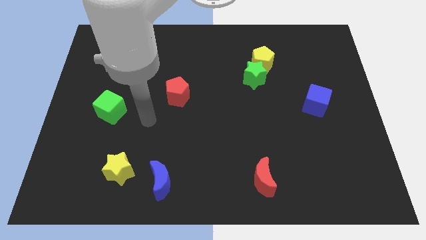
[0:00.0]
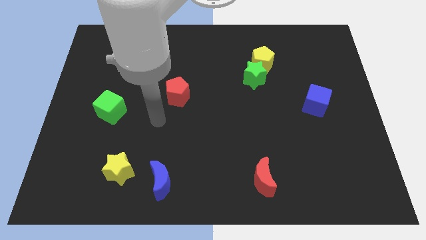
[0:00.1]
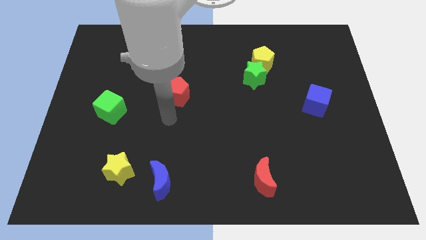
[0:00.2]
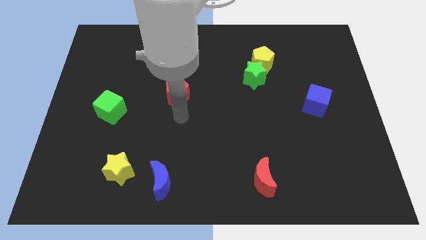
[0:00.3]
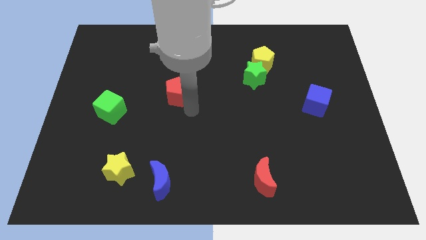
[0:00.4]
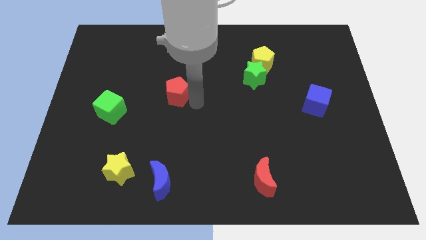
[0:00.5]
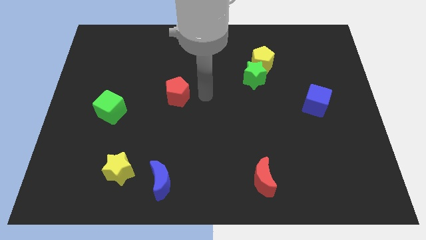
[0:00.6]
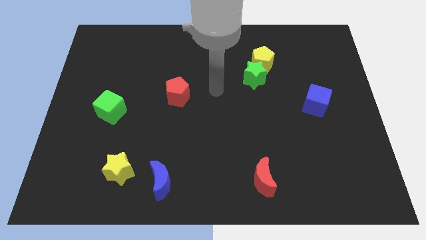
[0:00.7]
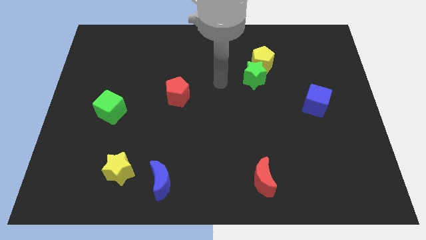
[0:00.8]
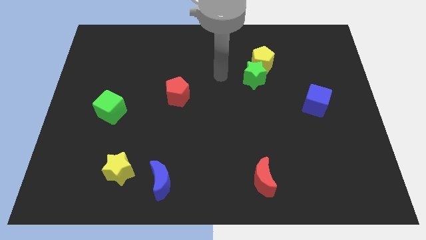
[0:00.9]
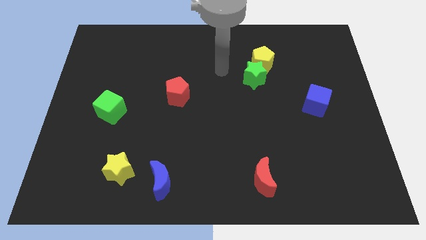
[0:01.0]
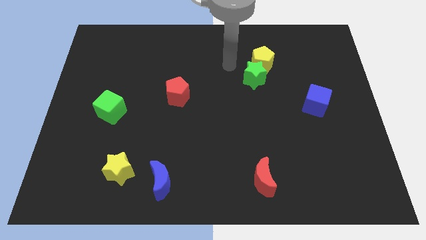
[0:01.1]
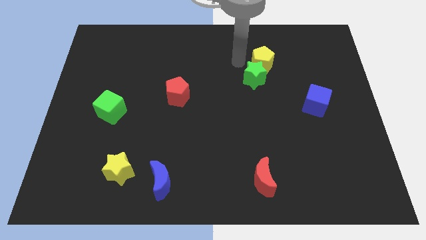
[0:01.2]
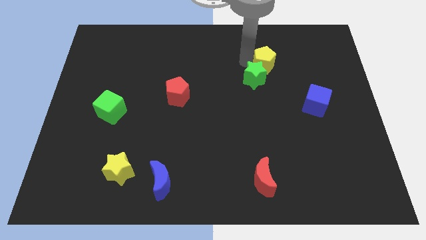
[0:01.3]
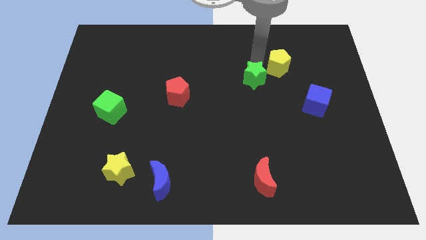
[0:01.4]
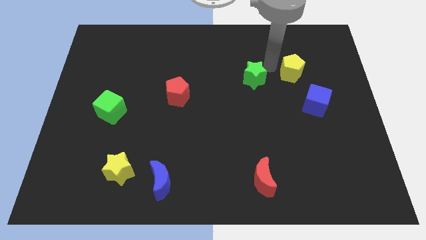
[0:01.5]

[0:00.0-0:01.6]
move the green star away from the yellow pentagon

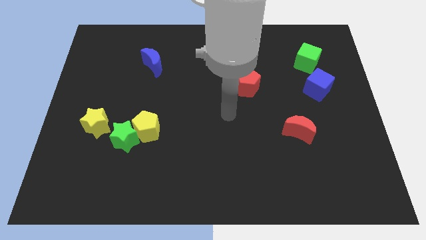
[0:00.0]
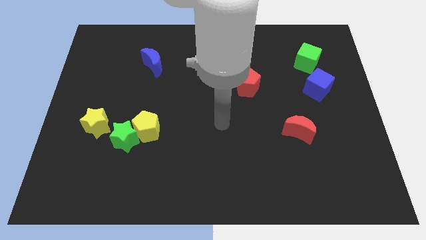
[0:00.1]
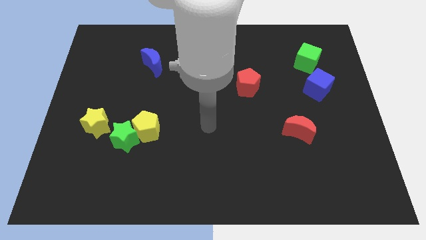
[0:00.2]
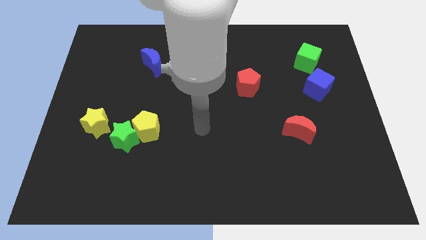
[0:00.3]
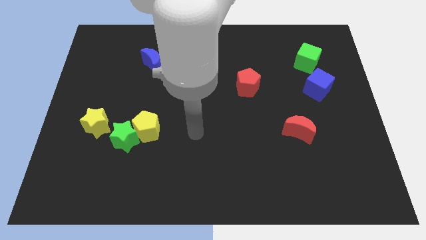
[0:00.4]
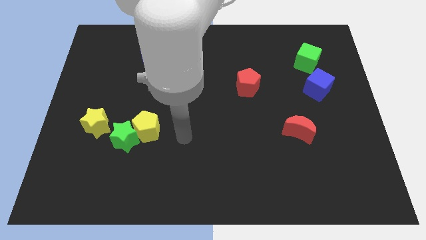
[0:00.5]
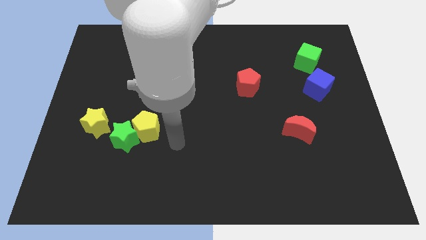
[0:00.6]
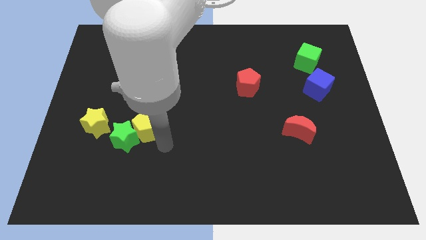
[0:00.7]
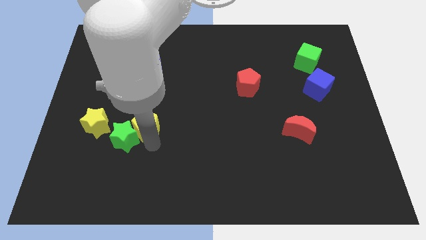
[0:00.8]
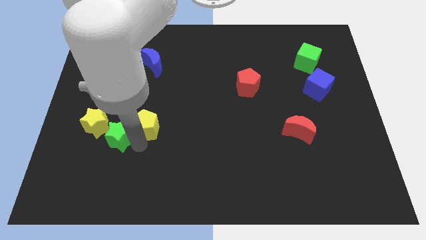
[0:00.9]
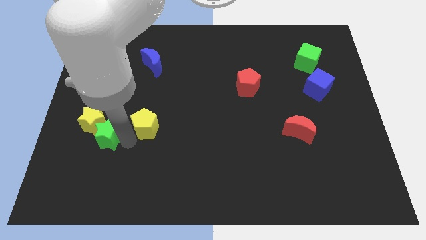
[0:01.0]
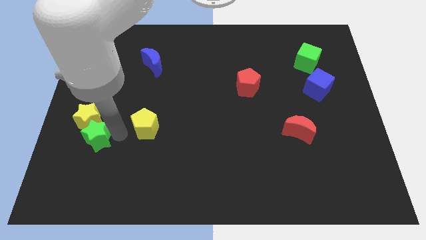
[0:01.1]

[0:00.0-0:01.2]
pull the yellow pentagon apart from the green star

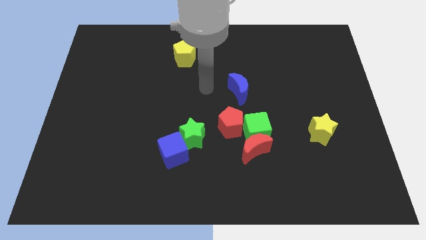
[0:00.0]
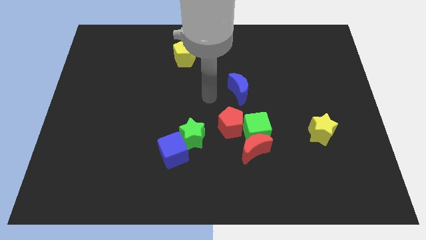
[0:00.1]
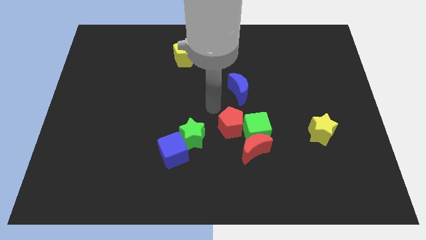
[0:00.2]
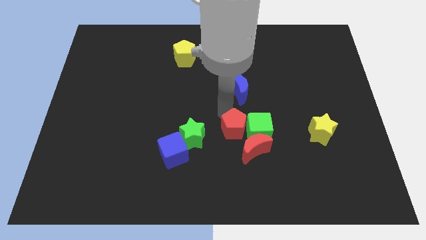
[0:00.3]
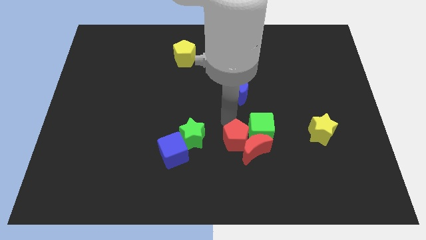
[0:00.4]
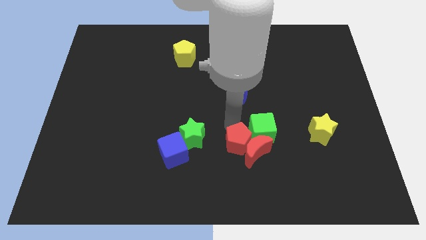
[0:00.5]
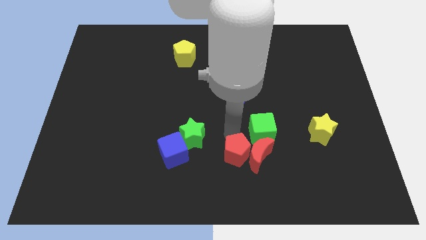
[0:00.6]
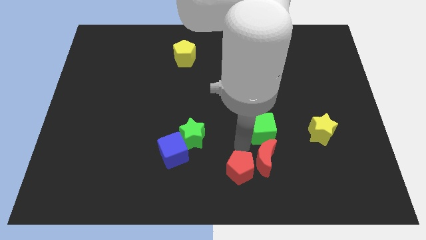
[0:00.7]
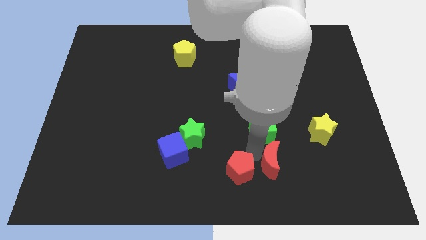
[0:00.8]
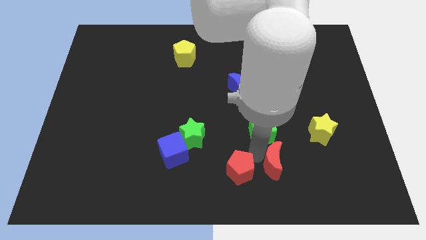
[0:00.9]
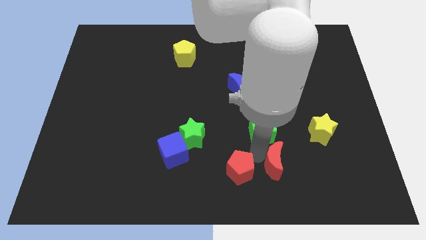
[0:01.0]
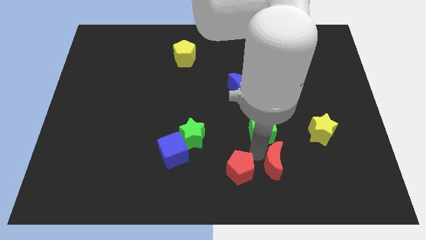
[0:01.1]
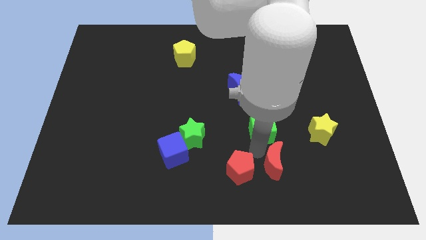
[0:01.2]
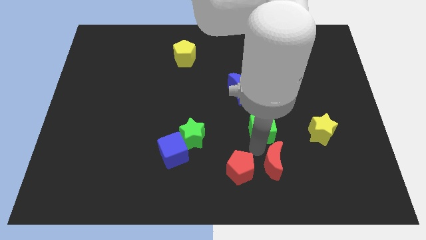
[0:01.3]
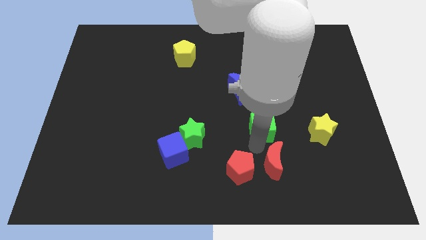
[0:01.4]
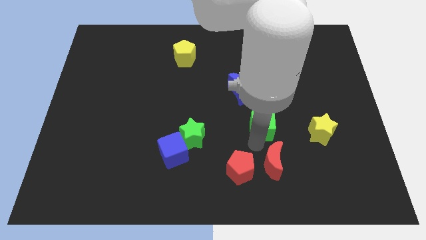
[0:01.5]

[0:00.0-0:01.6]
separate the green cube from the red moon and red pentagon

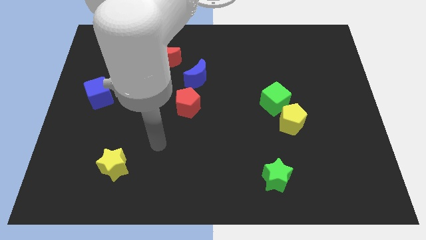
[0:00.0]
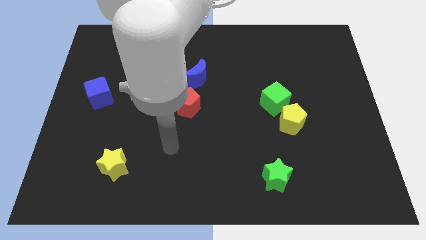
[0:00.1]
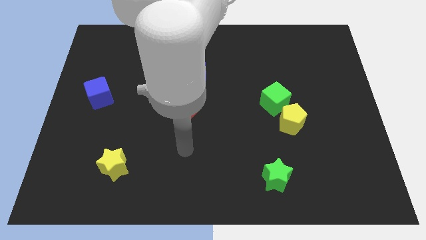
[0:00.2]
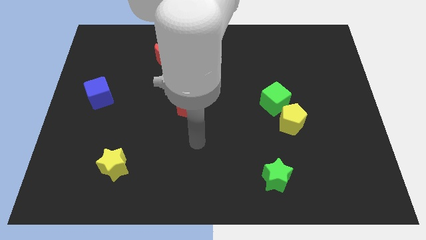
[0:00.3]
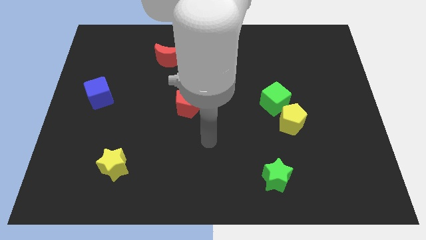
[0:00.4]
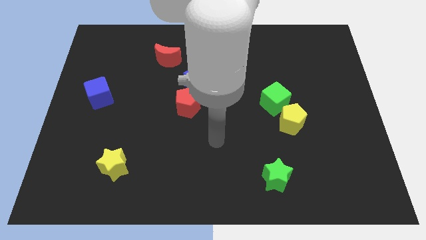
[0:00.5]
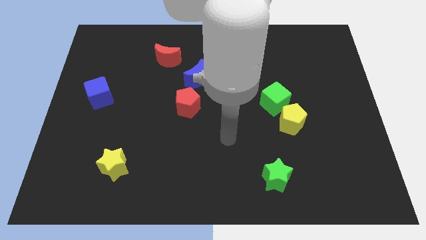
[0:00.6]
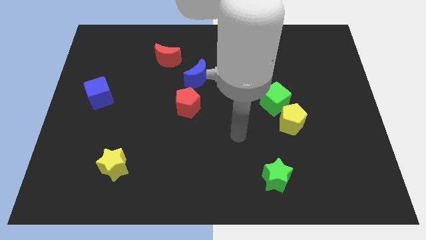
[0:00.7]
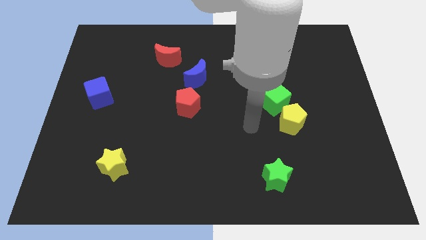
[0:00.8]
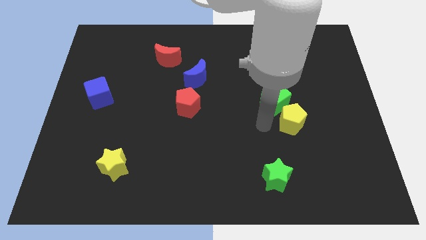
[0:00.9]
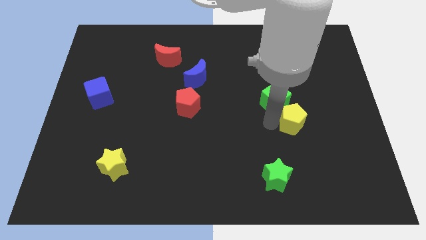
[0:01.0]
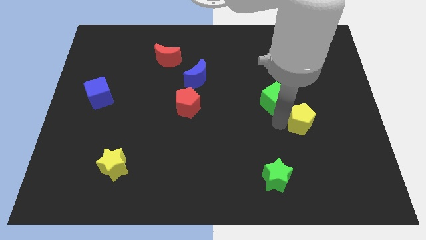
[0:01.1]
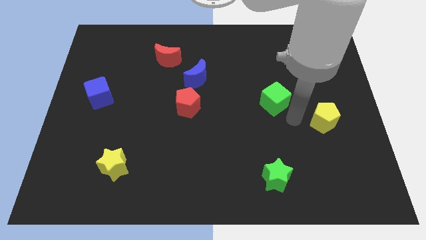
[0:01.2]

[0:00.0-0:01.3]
separate the green cube from the yellow pentagon

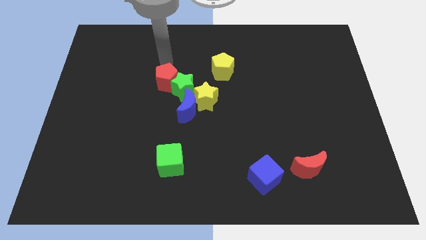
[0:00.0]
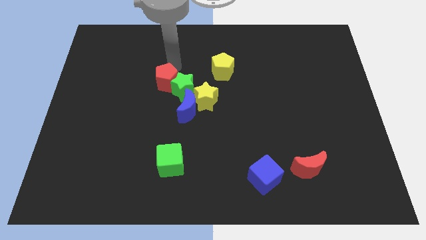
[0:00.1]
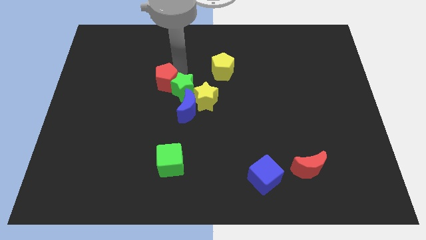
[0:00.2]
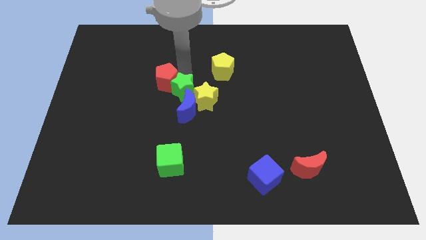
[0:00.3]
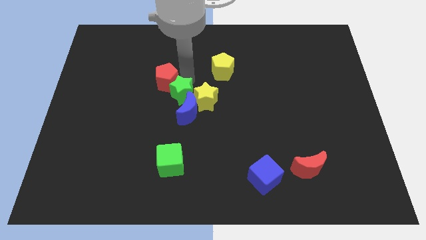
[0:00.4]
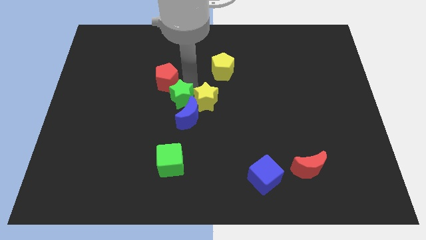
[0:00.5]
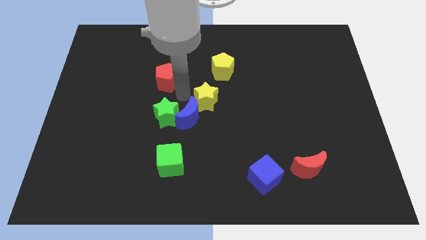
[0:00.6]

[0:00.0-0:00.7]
move the red pentagon away from the green star

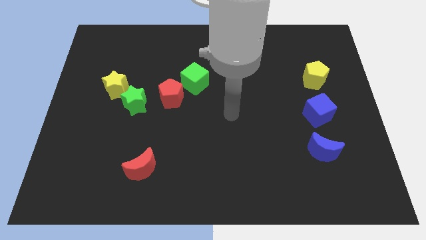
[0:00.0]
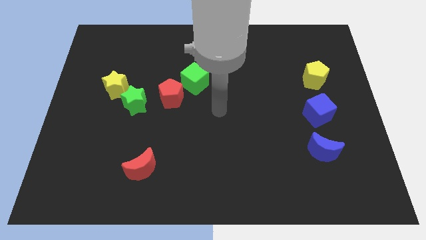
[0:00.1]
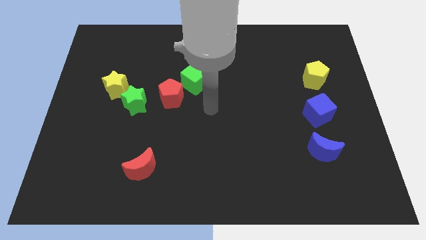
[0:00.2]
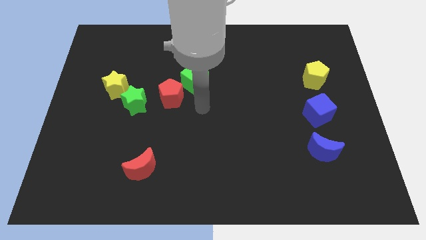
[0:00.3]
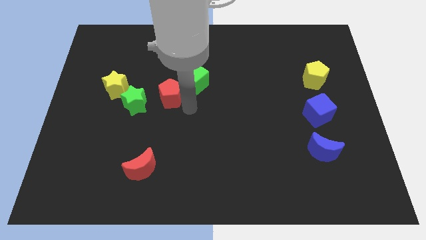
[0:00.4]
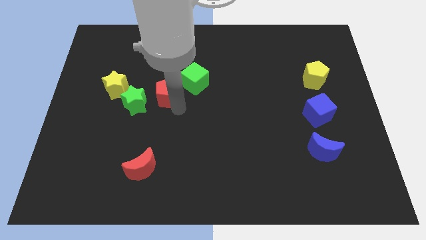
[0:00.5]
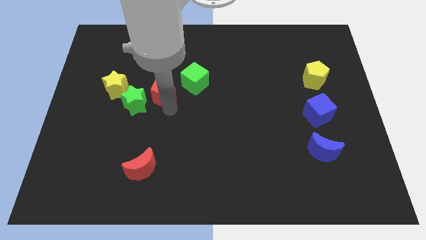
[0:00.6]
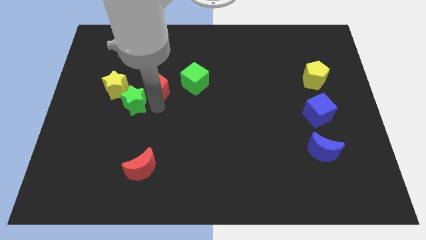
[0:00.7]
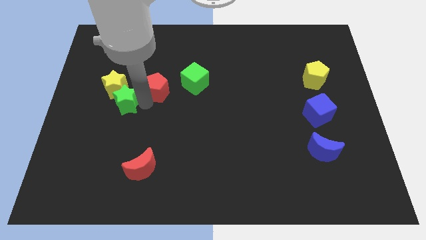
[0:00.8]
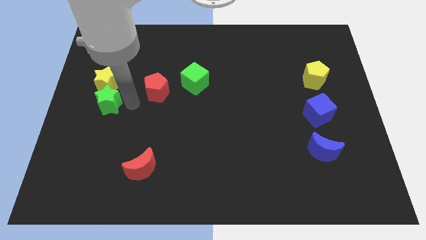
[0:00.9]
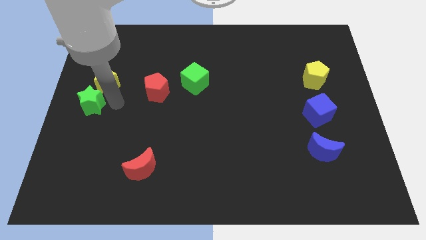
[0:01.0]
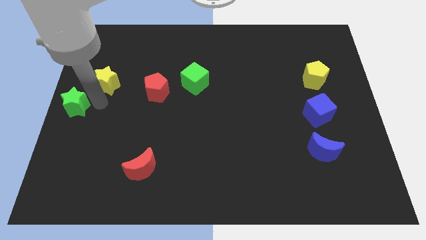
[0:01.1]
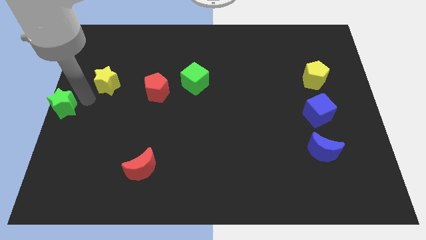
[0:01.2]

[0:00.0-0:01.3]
move the yellow star away from the green star

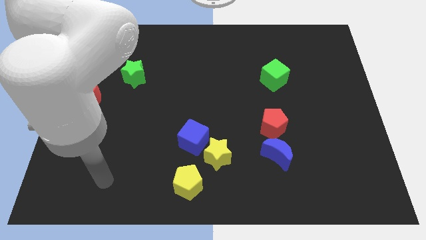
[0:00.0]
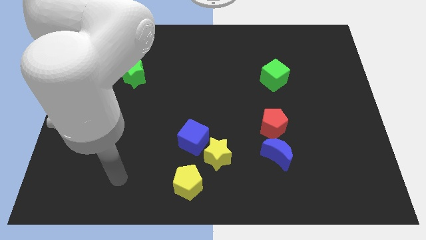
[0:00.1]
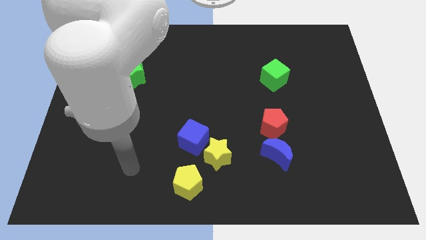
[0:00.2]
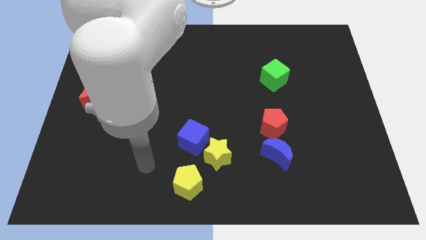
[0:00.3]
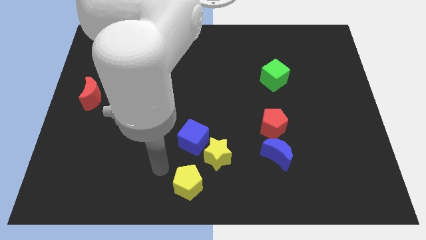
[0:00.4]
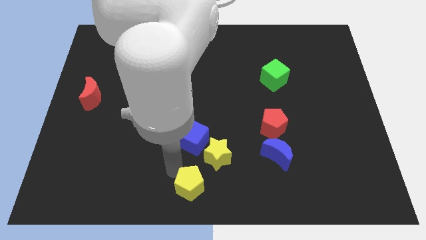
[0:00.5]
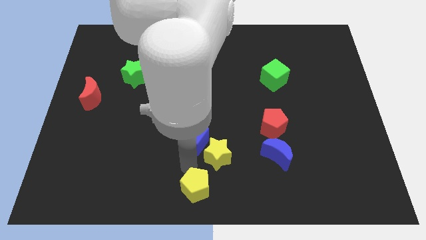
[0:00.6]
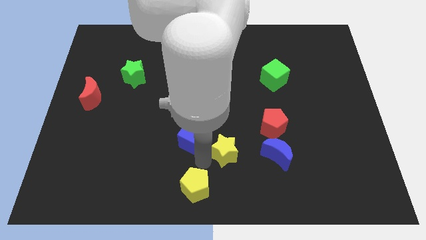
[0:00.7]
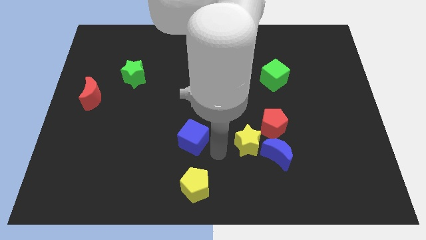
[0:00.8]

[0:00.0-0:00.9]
separate the blue cube from the yellow star

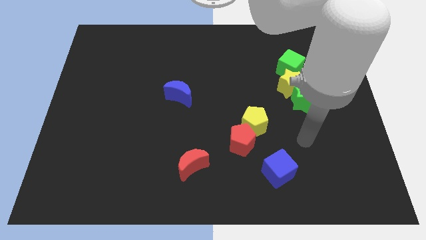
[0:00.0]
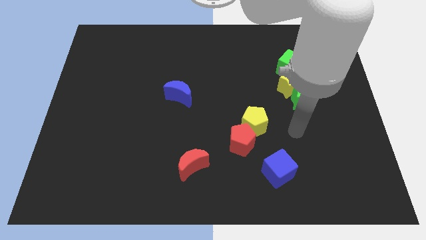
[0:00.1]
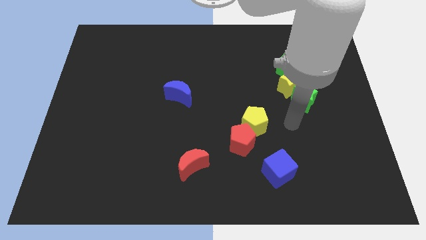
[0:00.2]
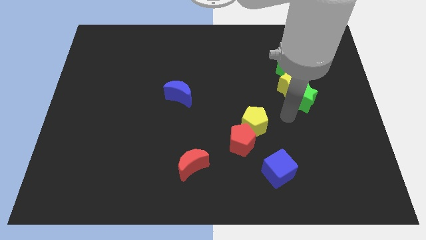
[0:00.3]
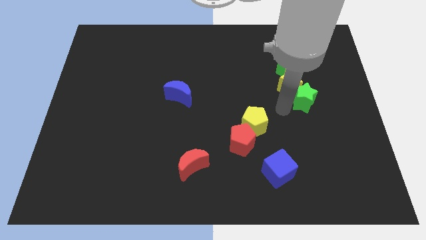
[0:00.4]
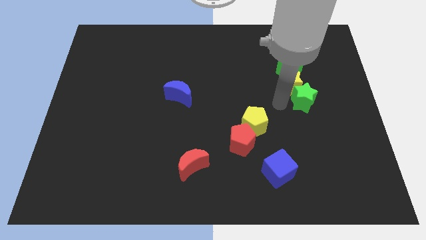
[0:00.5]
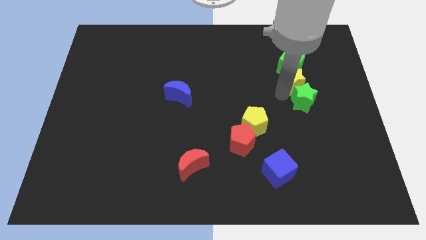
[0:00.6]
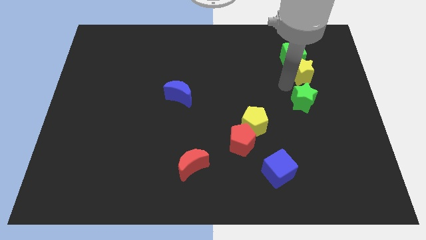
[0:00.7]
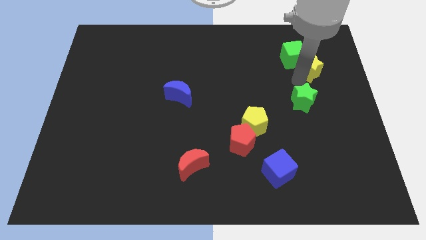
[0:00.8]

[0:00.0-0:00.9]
separate the green star from the yellow star
